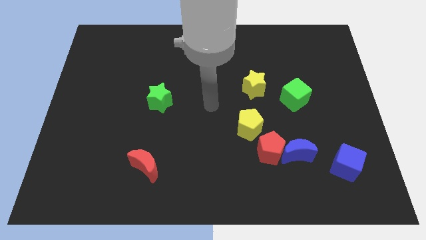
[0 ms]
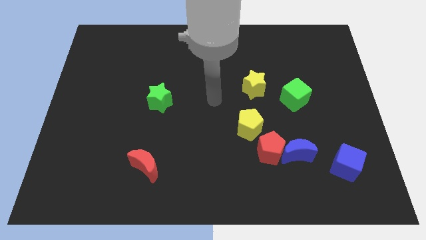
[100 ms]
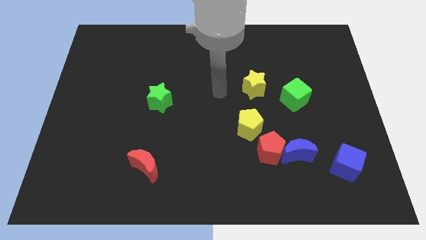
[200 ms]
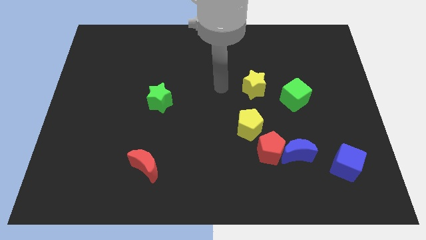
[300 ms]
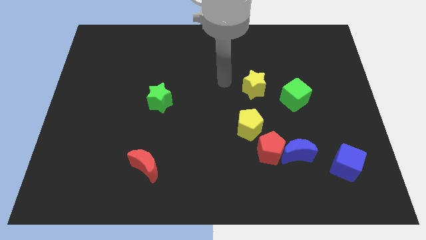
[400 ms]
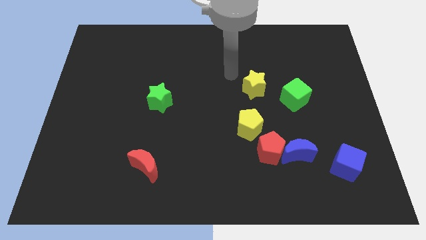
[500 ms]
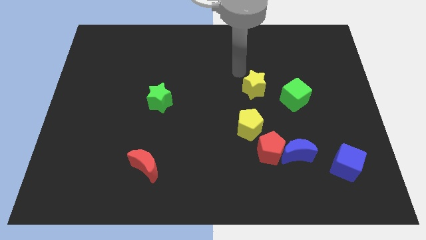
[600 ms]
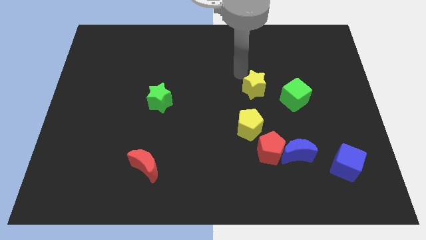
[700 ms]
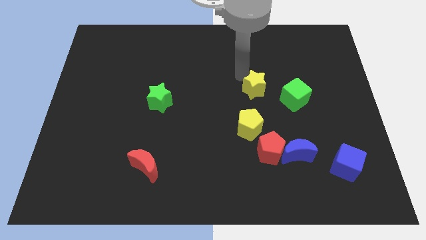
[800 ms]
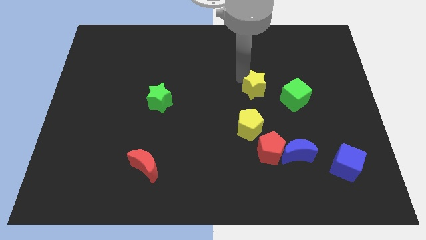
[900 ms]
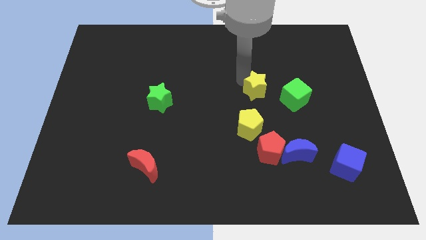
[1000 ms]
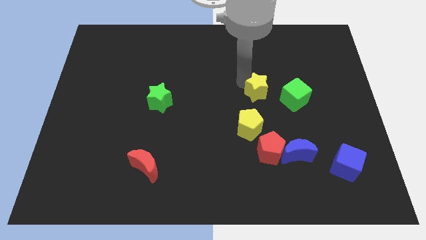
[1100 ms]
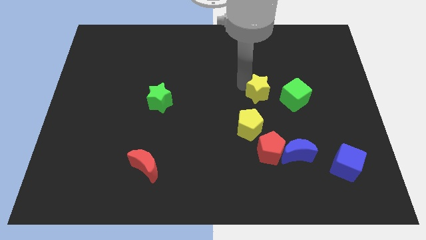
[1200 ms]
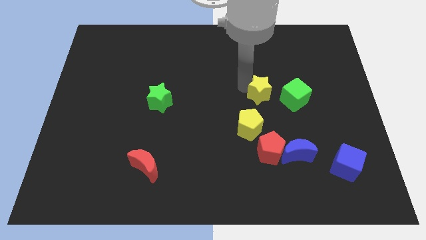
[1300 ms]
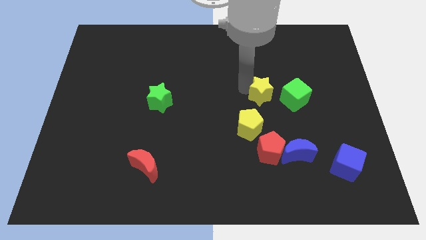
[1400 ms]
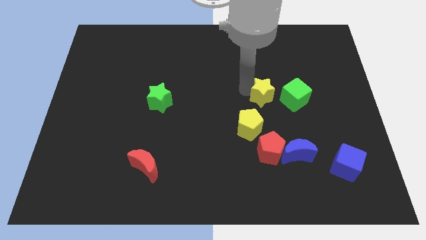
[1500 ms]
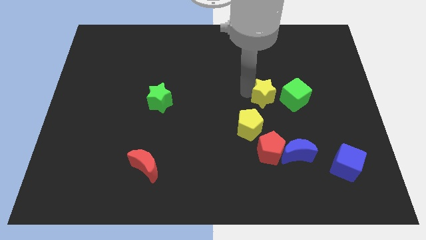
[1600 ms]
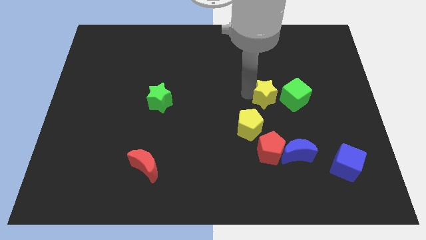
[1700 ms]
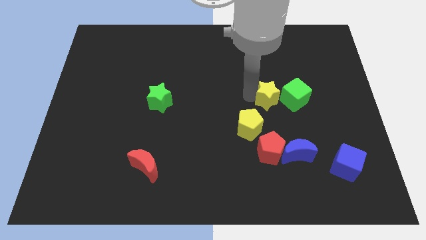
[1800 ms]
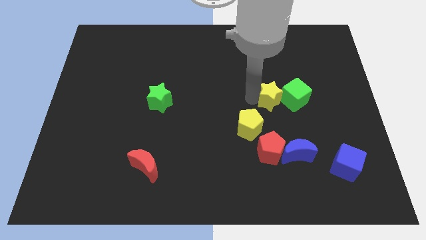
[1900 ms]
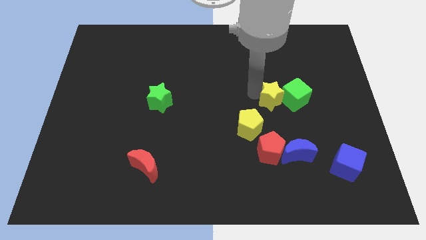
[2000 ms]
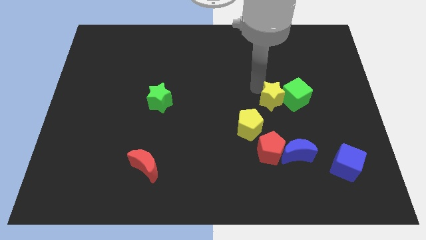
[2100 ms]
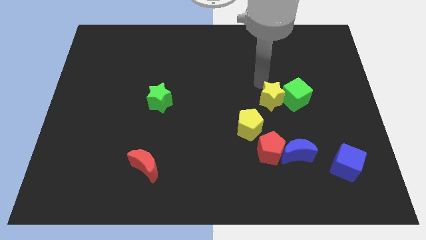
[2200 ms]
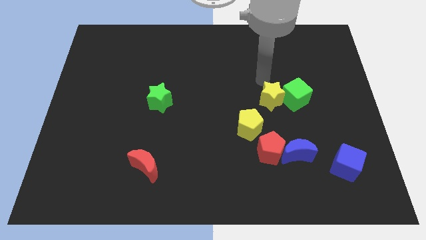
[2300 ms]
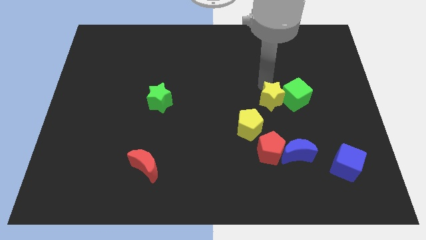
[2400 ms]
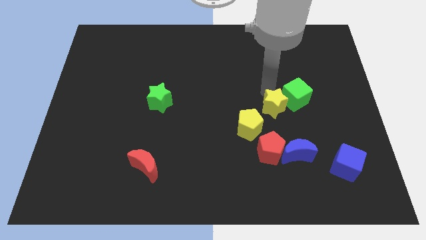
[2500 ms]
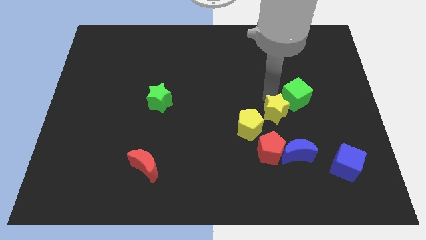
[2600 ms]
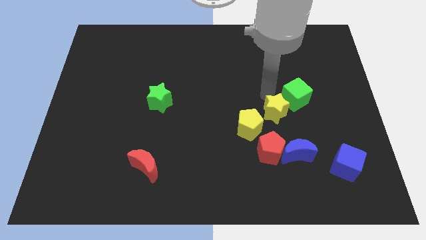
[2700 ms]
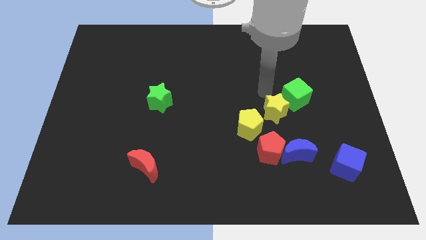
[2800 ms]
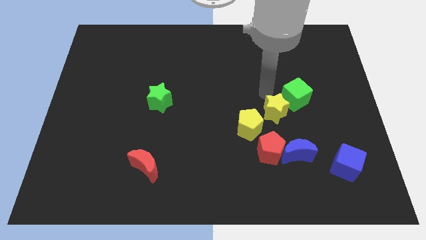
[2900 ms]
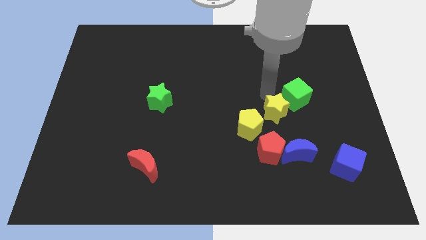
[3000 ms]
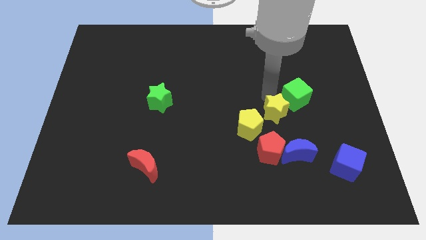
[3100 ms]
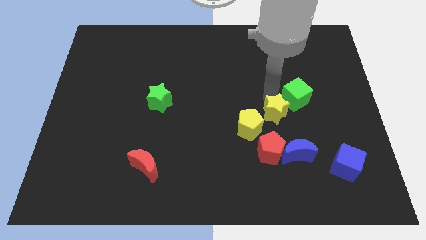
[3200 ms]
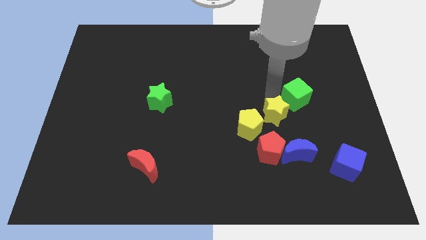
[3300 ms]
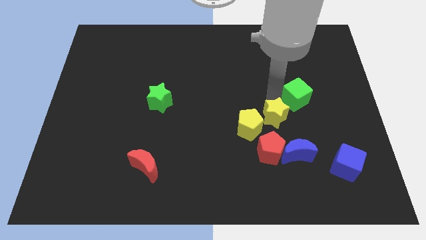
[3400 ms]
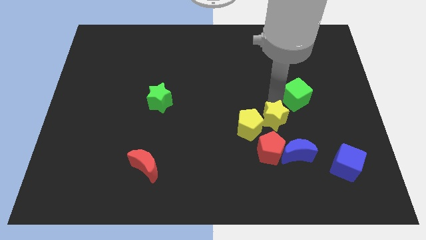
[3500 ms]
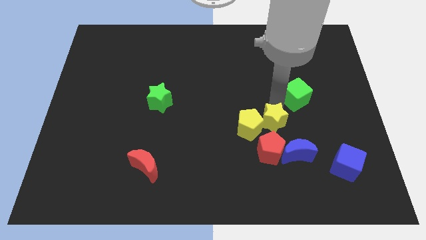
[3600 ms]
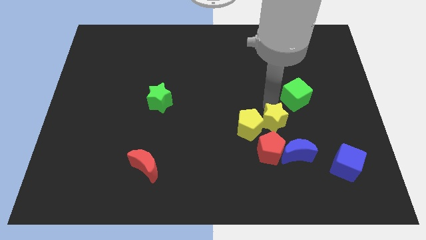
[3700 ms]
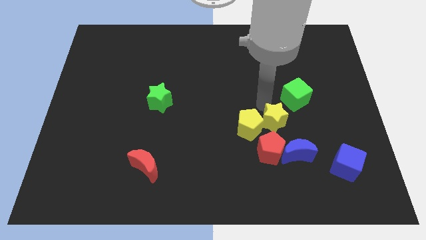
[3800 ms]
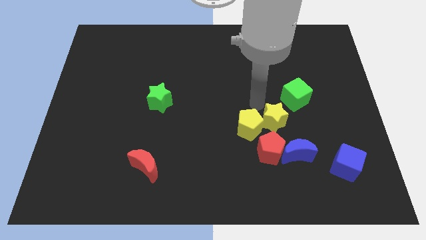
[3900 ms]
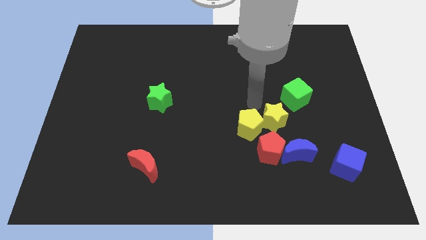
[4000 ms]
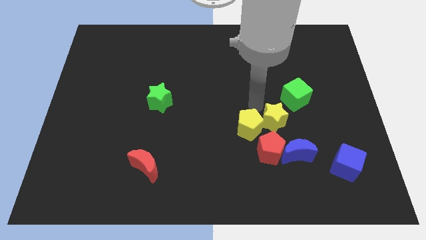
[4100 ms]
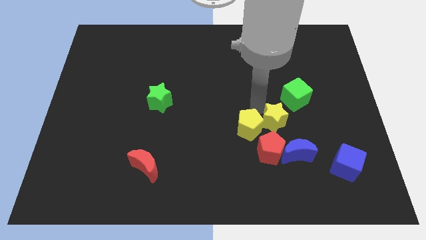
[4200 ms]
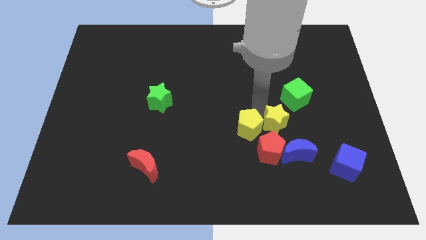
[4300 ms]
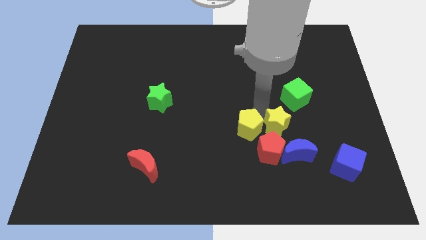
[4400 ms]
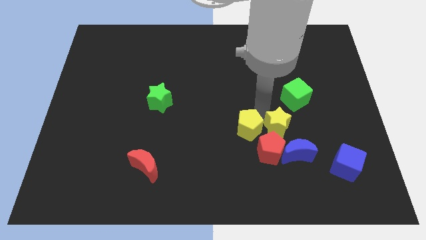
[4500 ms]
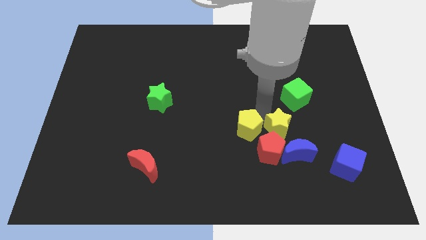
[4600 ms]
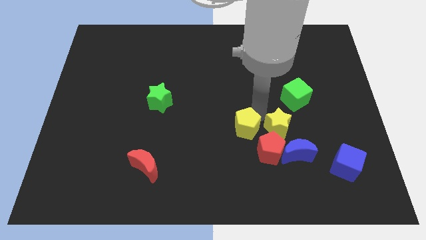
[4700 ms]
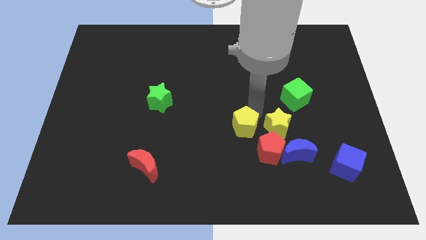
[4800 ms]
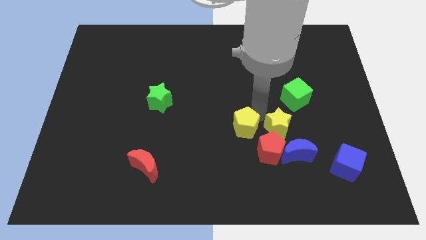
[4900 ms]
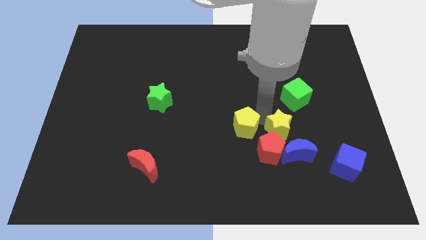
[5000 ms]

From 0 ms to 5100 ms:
slide the yellow star close to the red pentagon

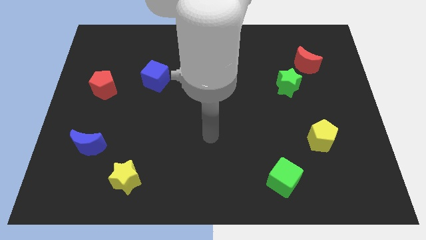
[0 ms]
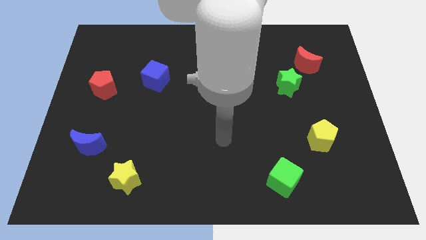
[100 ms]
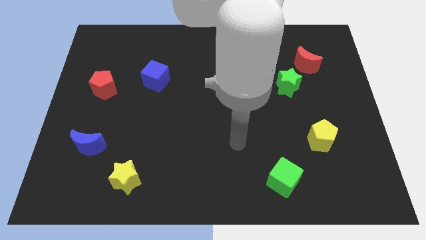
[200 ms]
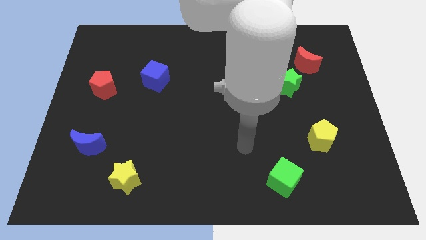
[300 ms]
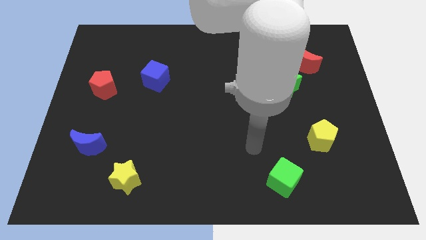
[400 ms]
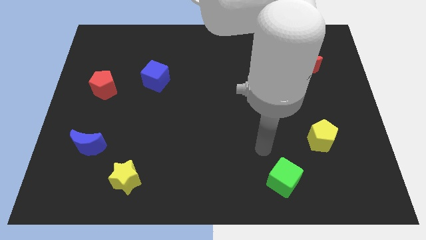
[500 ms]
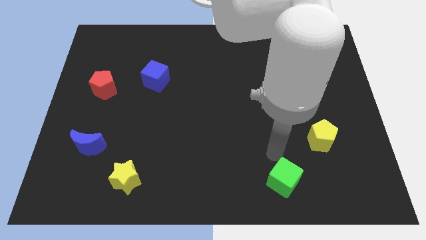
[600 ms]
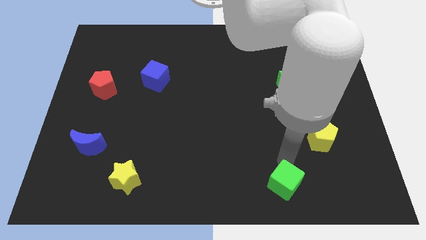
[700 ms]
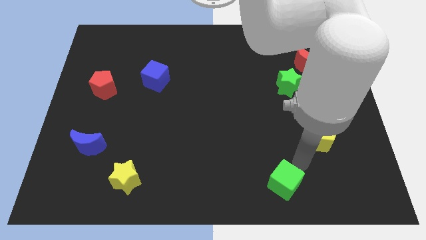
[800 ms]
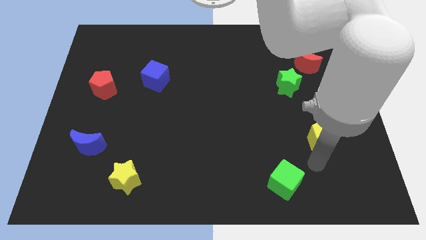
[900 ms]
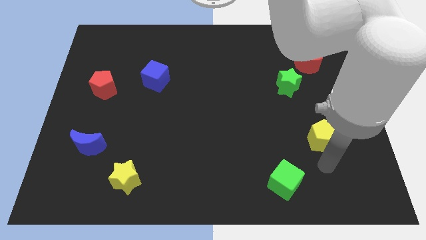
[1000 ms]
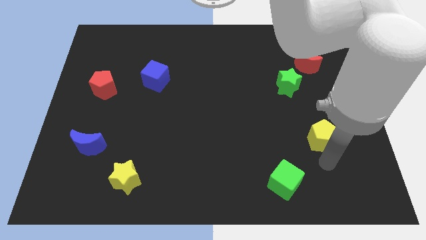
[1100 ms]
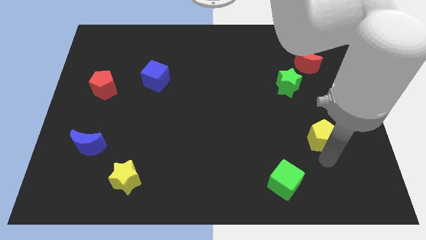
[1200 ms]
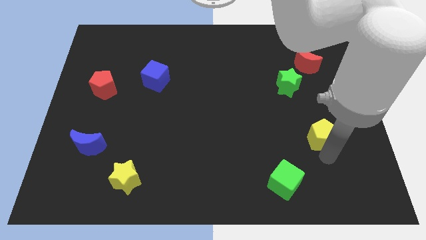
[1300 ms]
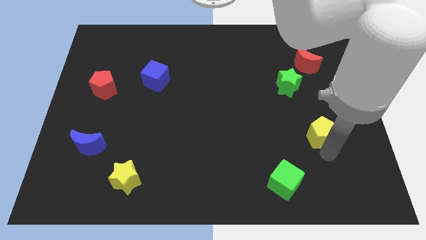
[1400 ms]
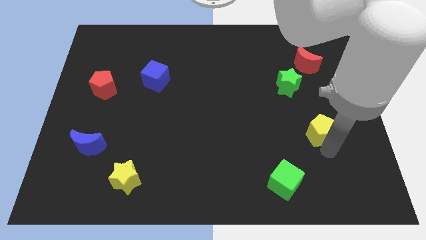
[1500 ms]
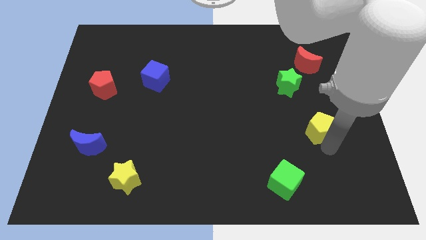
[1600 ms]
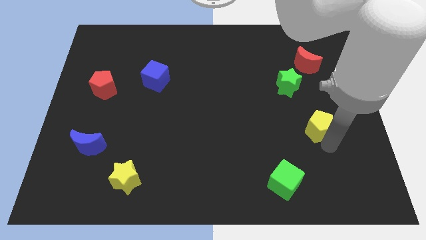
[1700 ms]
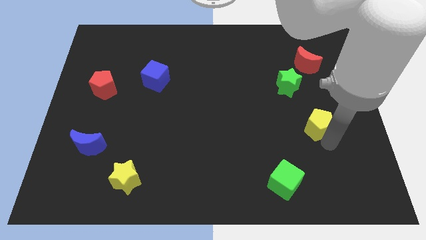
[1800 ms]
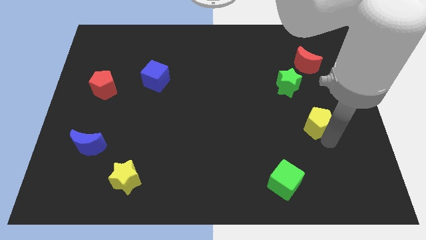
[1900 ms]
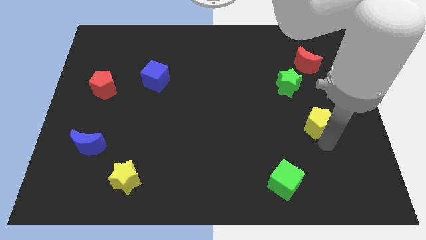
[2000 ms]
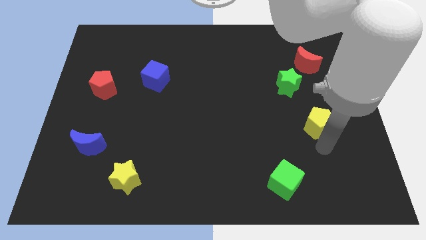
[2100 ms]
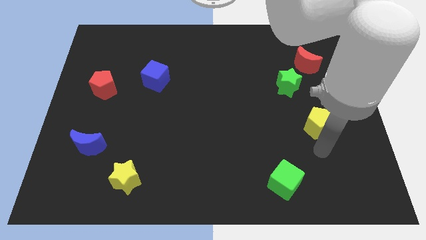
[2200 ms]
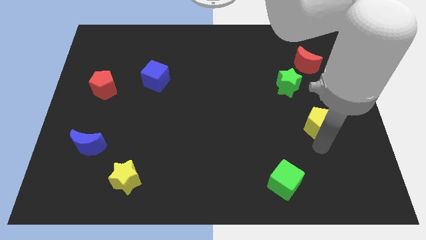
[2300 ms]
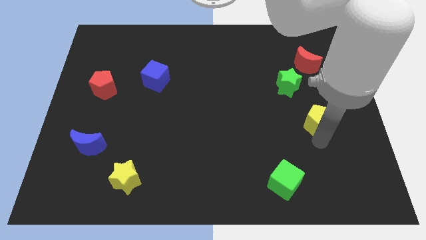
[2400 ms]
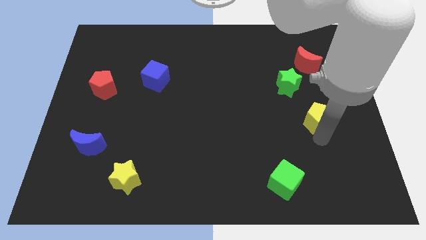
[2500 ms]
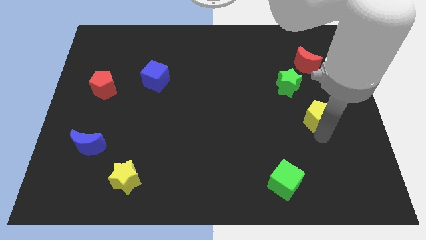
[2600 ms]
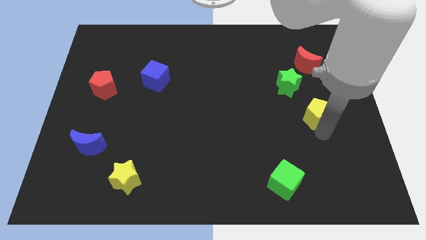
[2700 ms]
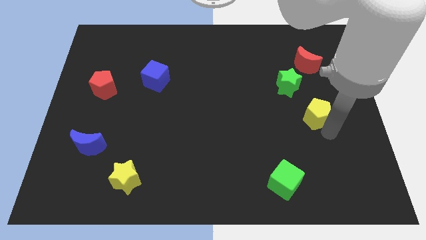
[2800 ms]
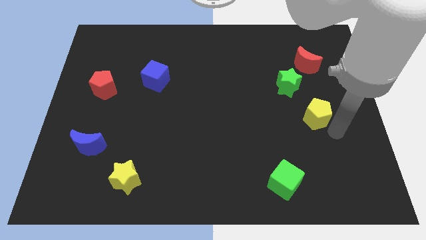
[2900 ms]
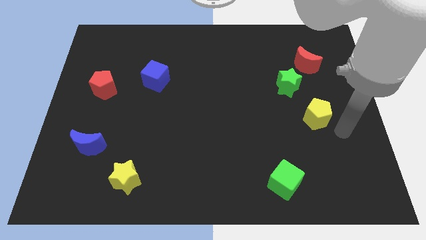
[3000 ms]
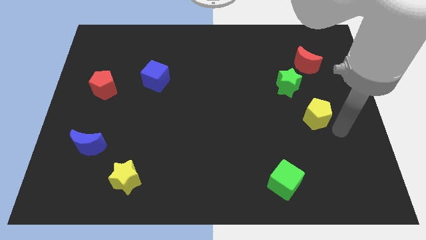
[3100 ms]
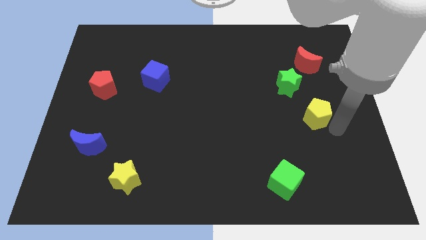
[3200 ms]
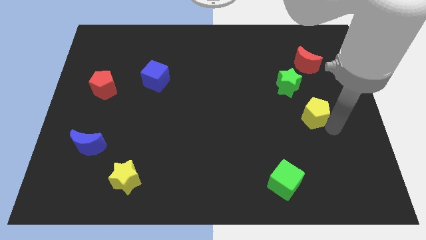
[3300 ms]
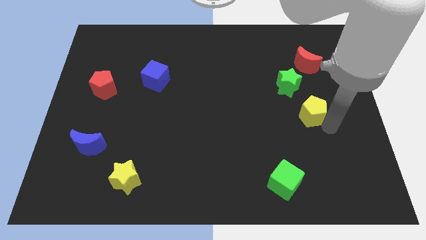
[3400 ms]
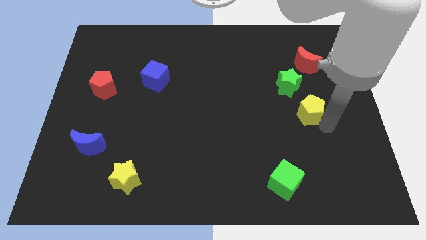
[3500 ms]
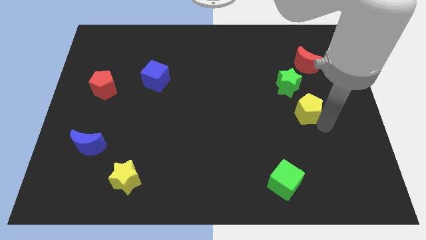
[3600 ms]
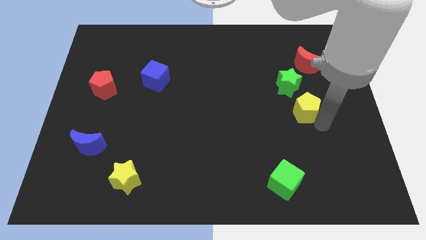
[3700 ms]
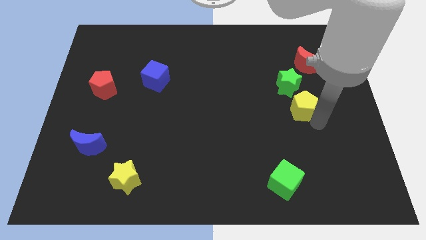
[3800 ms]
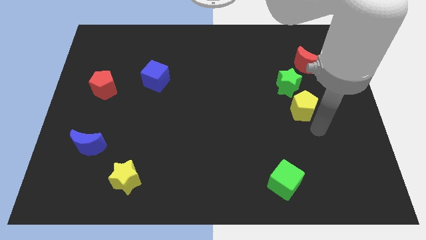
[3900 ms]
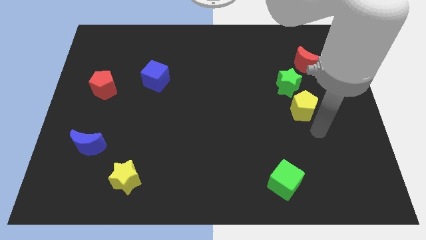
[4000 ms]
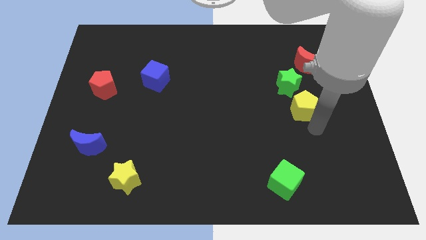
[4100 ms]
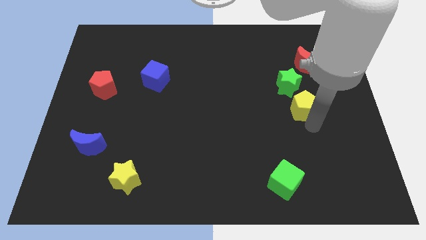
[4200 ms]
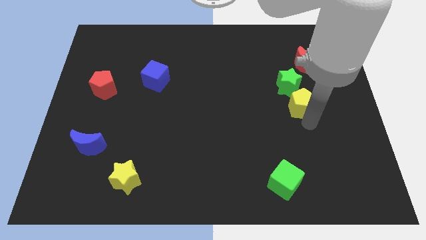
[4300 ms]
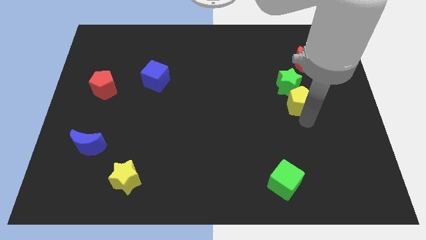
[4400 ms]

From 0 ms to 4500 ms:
move the yellow pentagon to the green star
